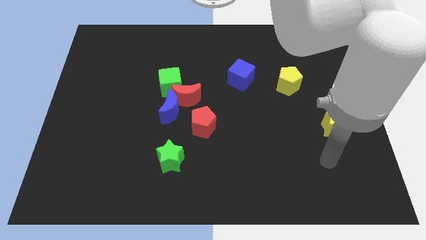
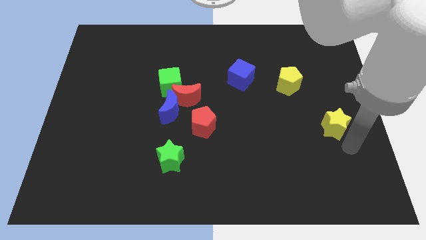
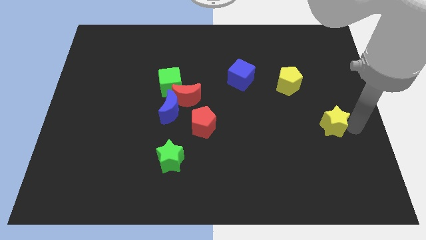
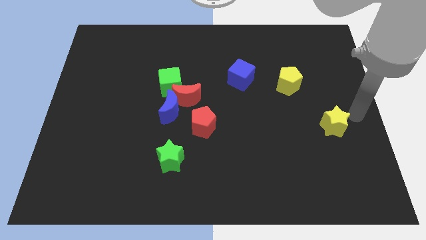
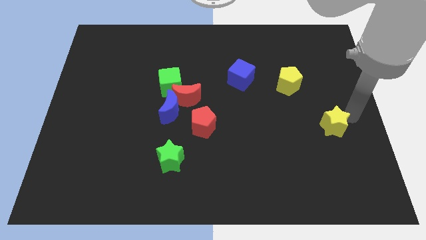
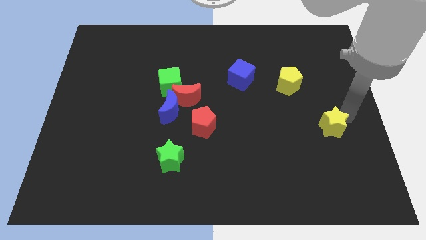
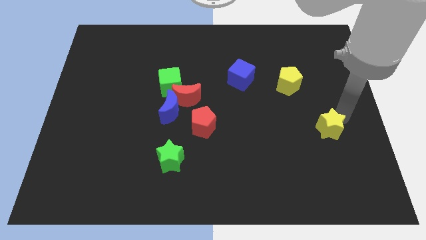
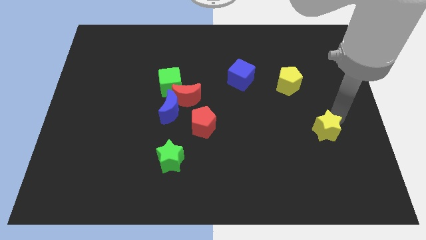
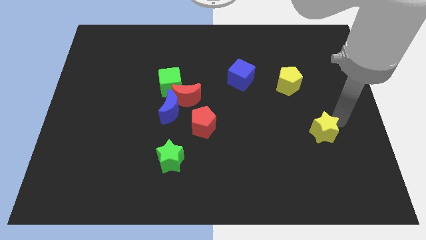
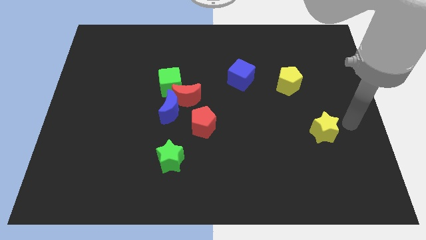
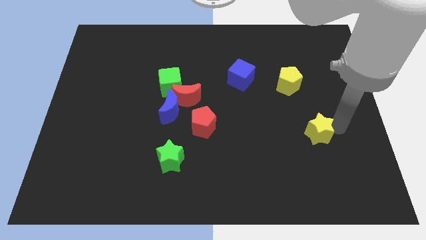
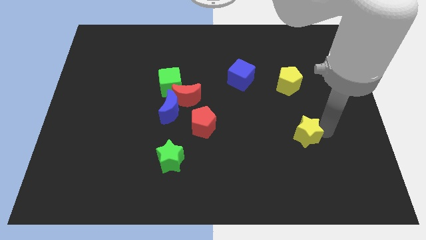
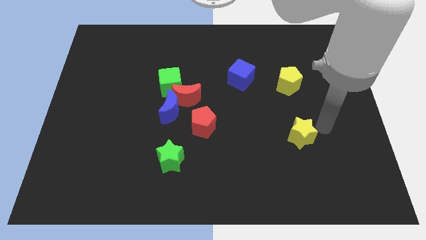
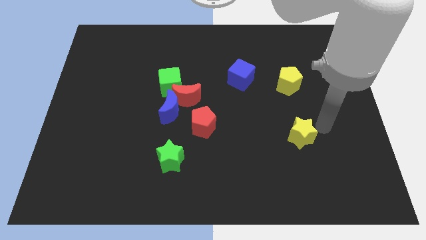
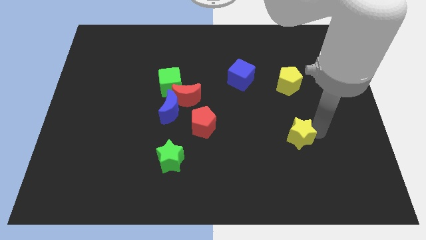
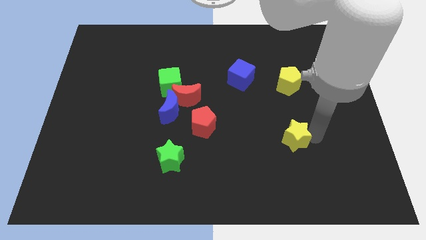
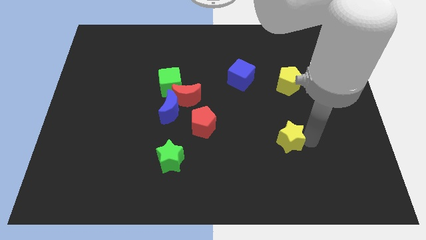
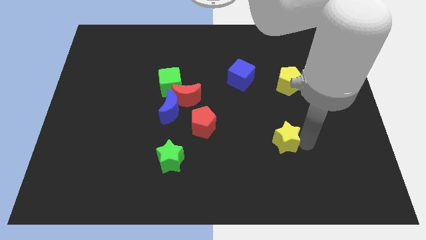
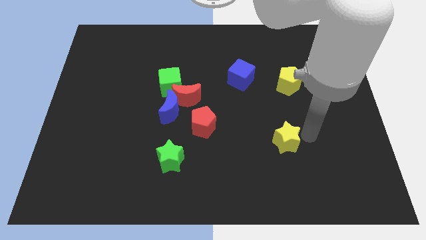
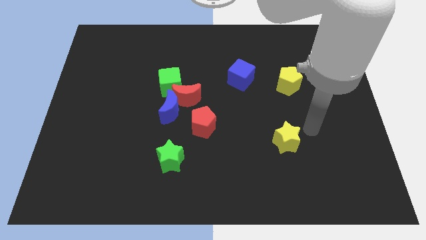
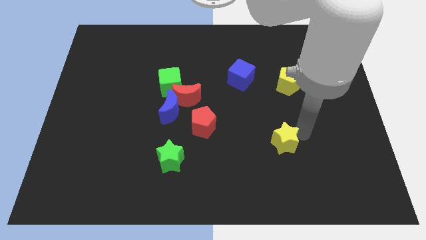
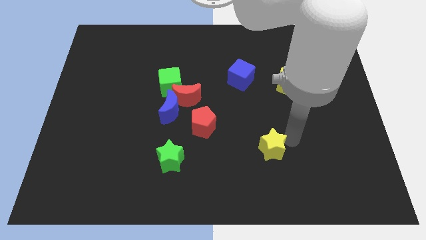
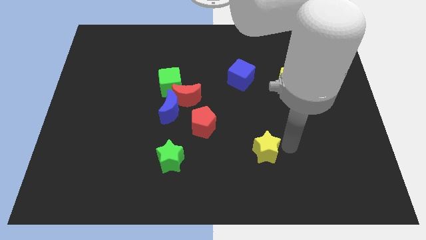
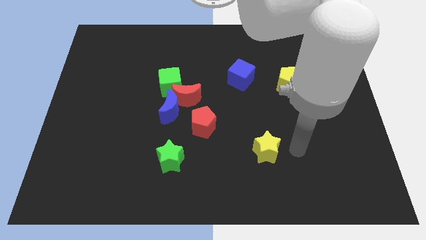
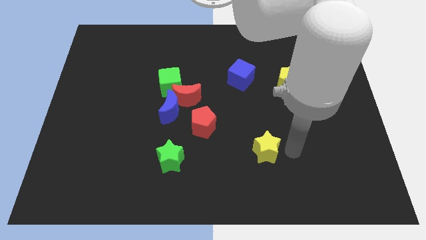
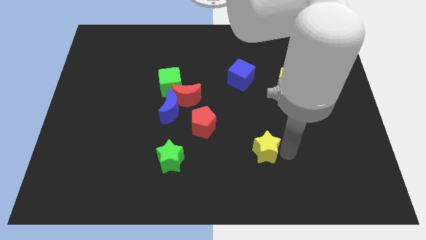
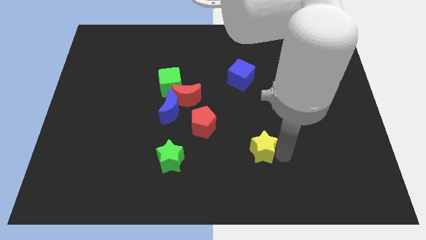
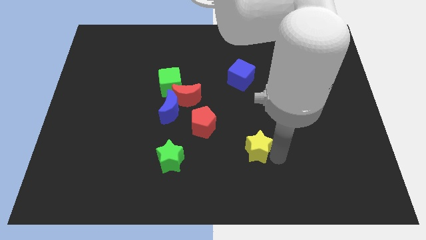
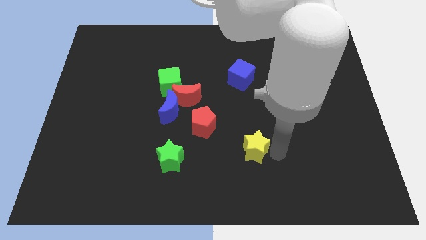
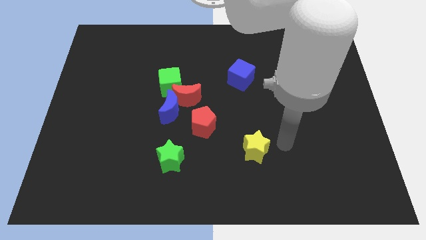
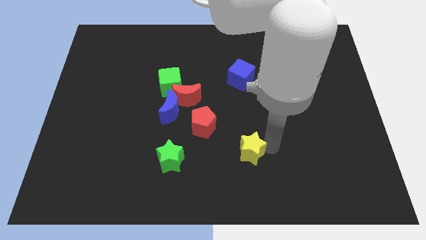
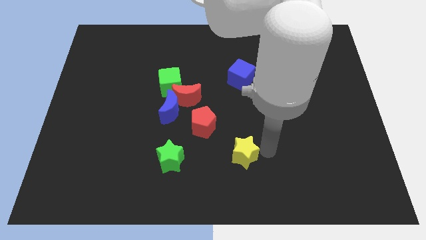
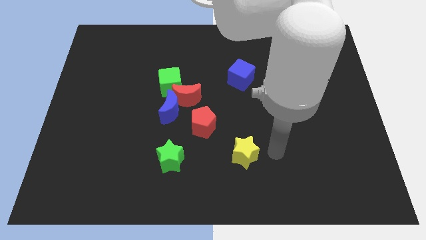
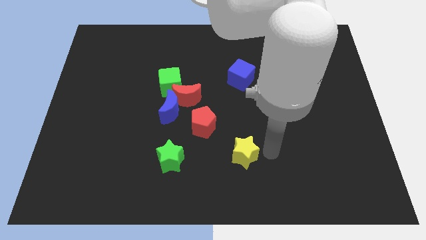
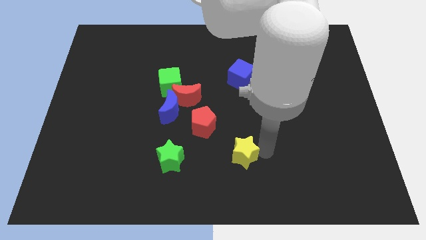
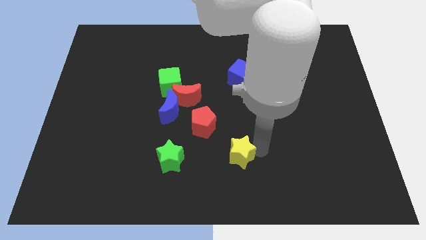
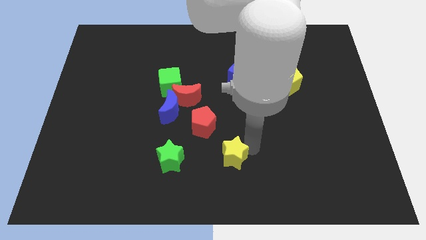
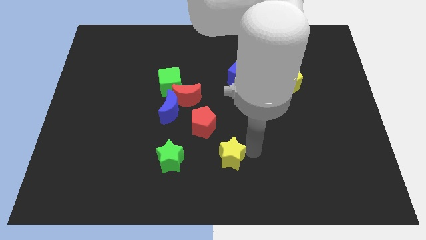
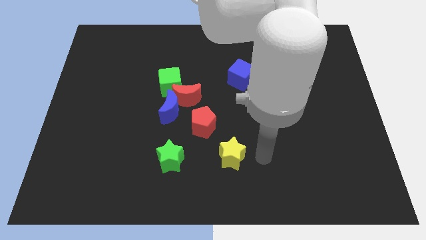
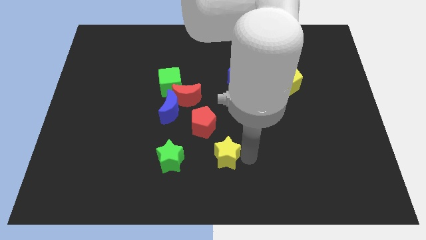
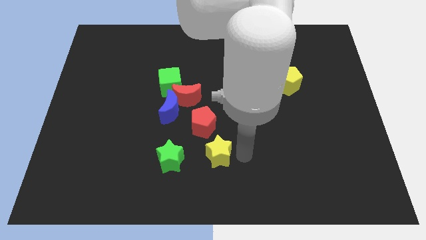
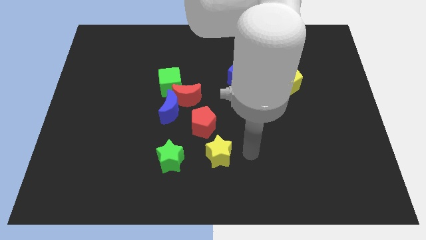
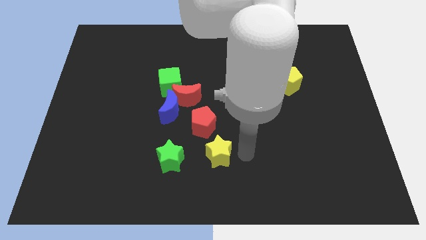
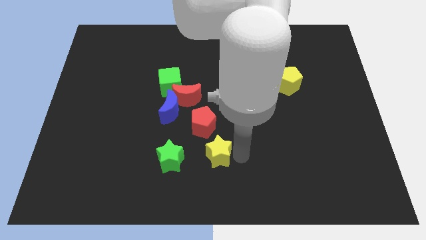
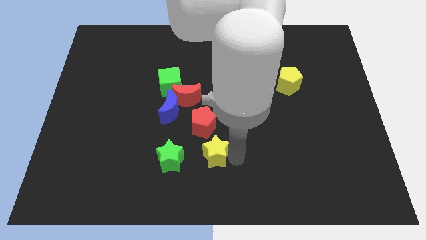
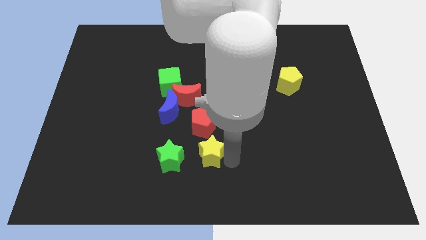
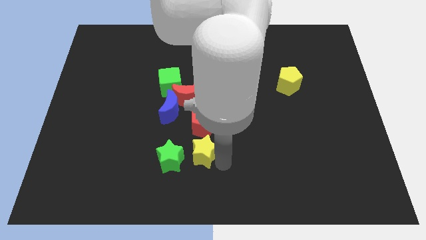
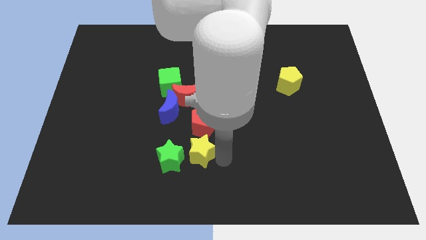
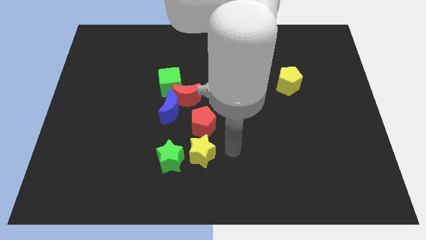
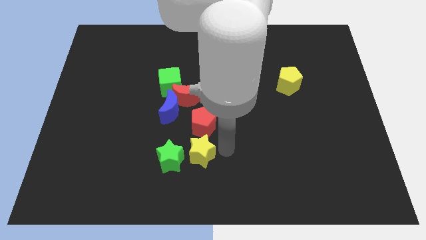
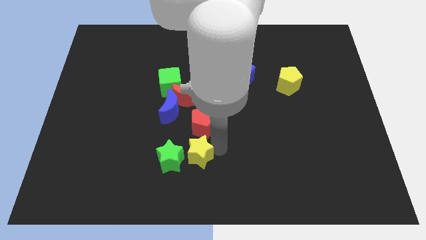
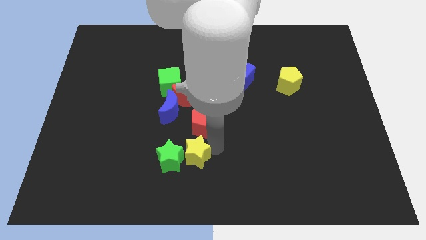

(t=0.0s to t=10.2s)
push the yellow star to the green star

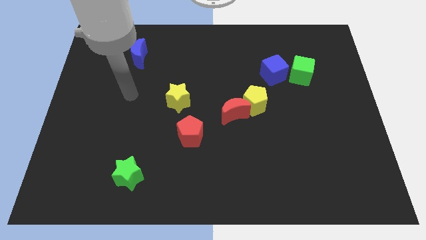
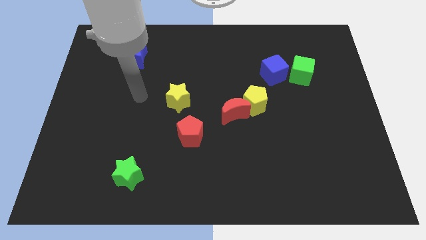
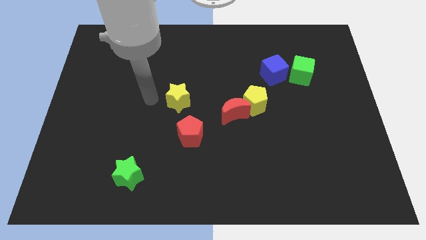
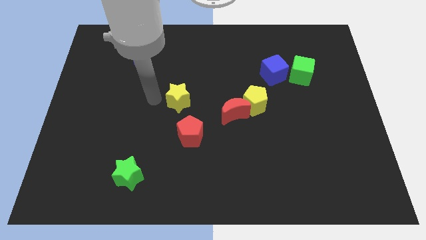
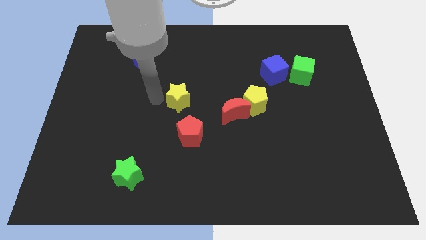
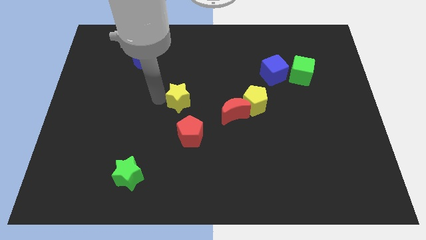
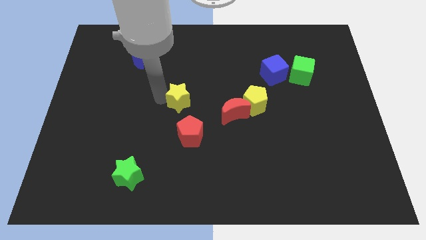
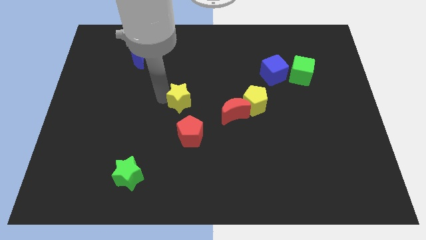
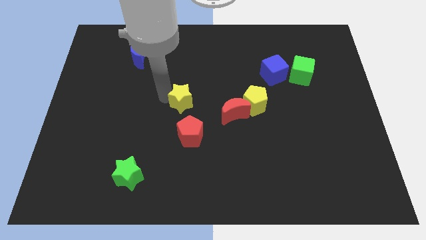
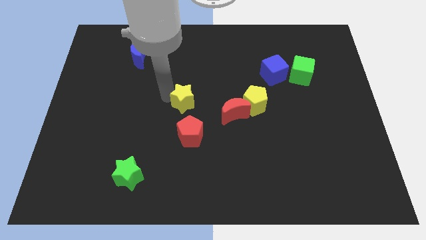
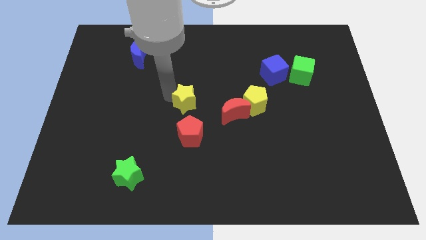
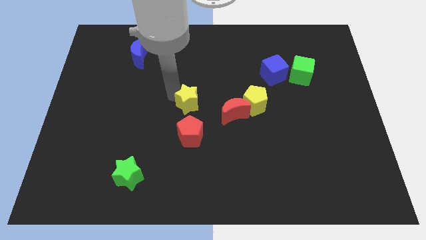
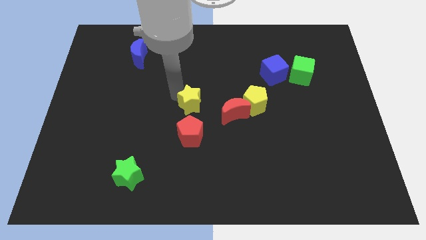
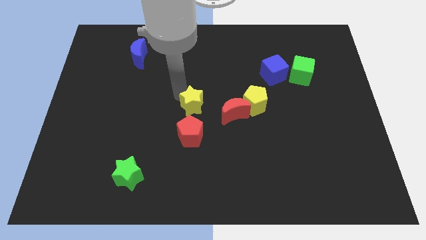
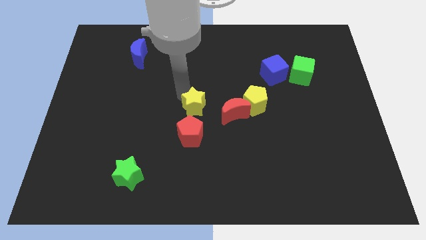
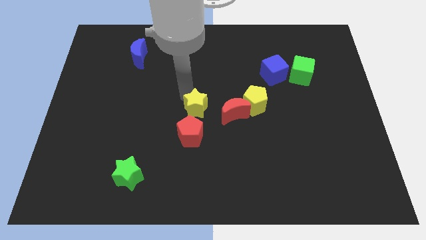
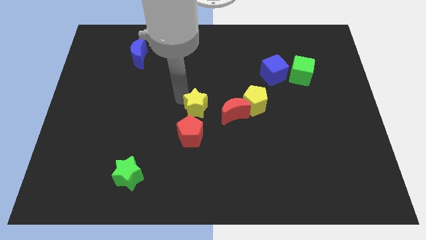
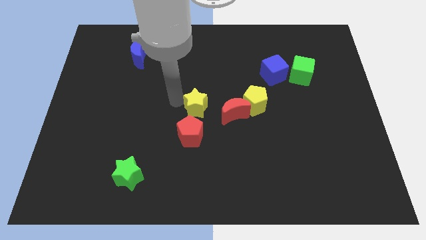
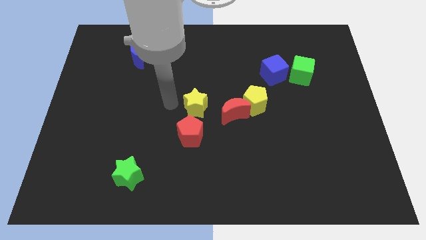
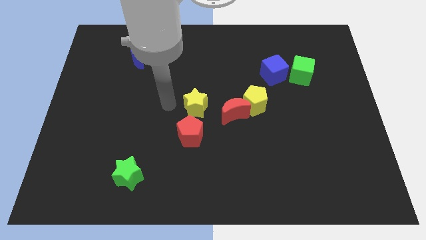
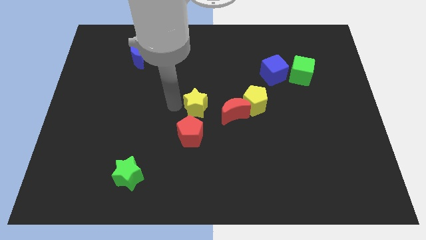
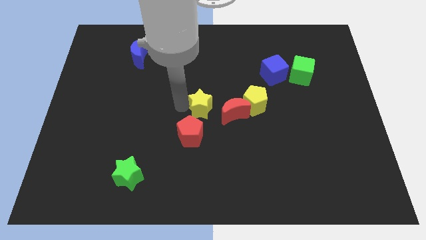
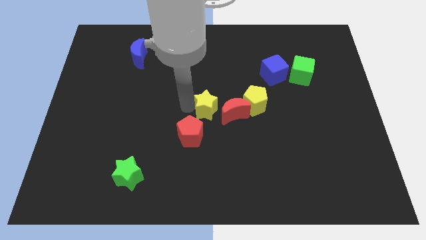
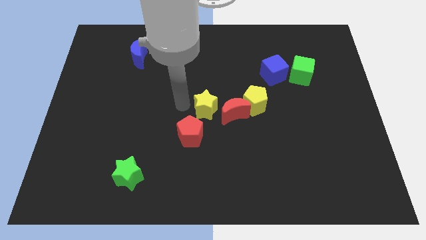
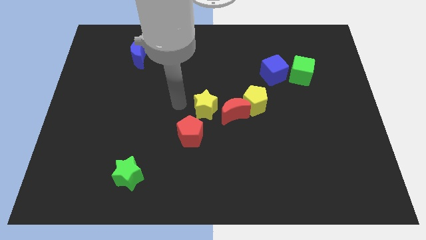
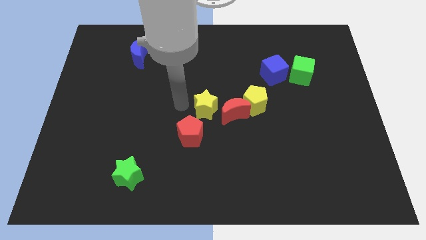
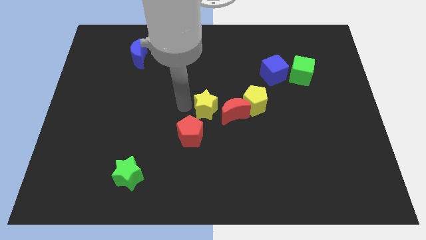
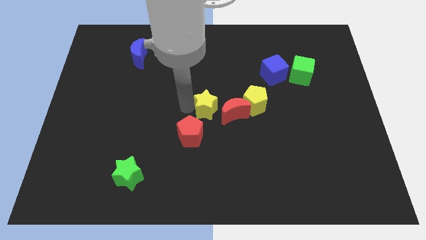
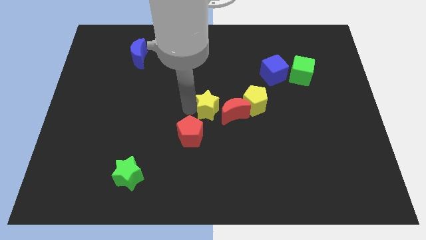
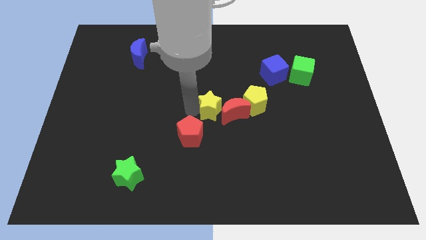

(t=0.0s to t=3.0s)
slide the yellow star close to the red moon
